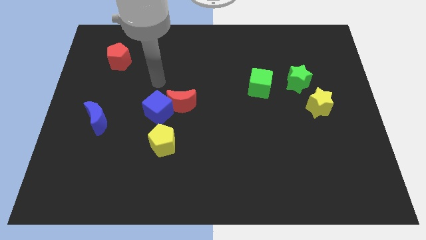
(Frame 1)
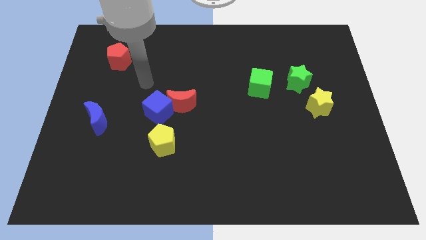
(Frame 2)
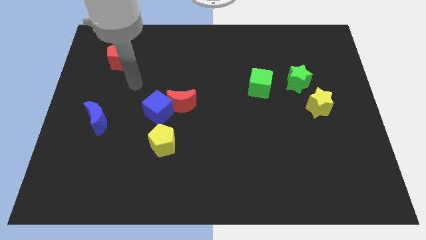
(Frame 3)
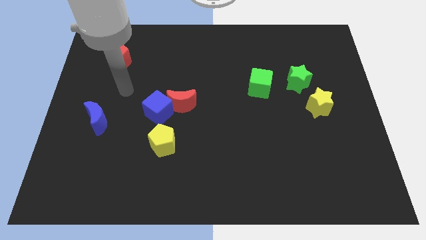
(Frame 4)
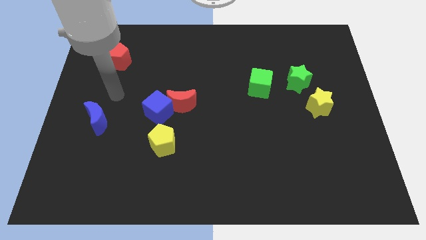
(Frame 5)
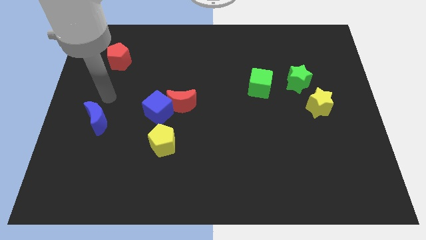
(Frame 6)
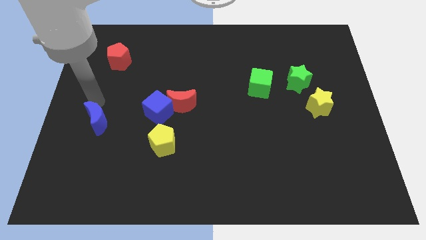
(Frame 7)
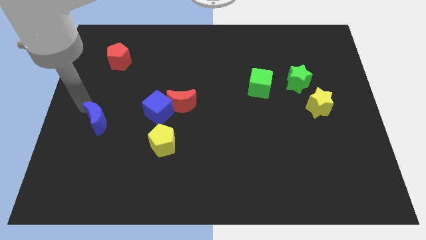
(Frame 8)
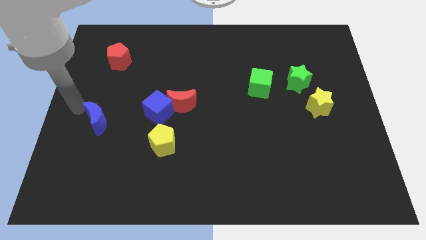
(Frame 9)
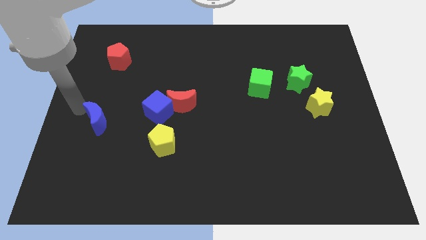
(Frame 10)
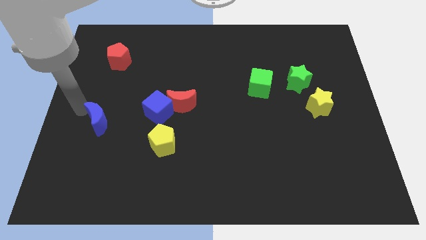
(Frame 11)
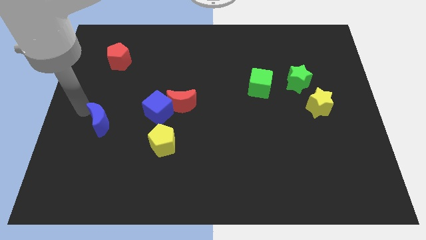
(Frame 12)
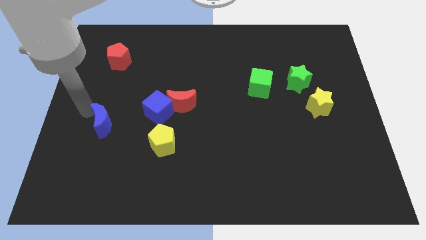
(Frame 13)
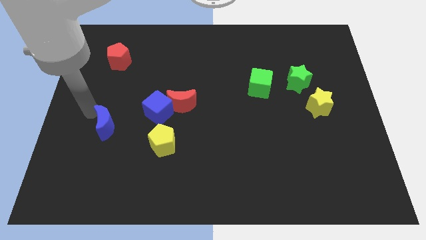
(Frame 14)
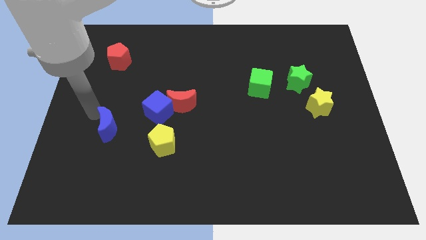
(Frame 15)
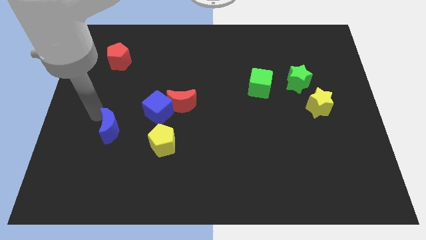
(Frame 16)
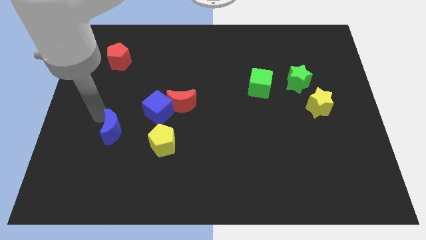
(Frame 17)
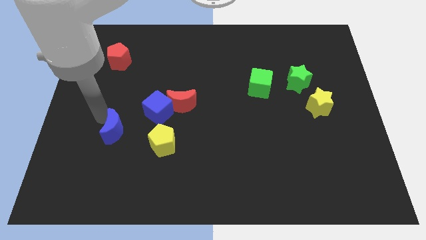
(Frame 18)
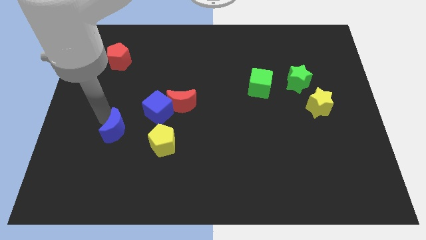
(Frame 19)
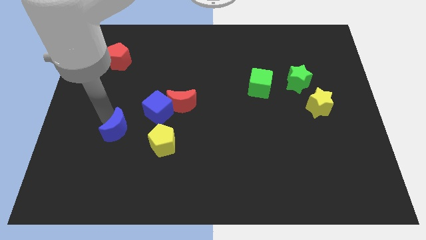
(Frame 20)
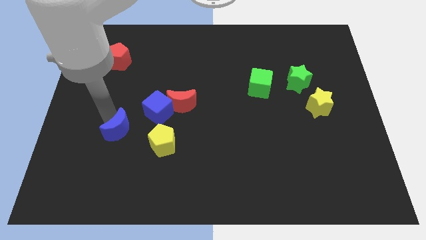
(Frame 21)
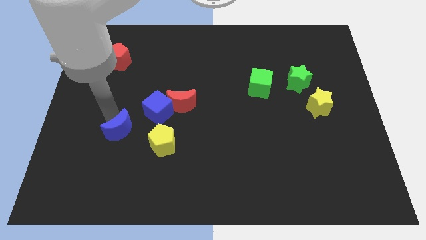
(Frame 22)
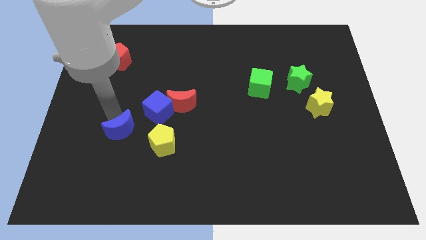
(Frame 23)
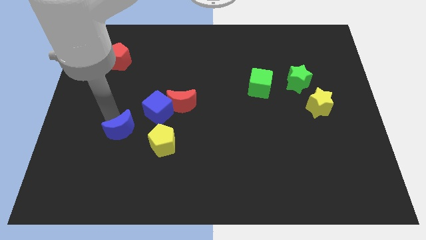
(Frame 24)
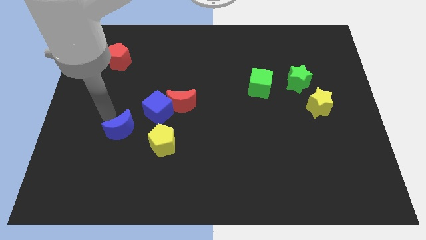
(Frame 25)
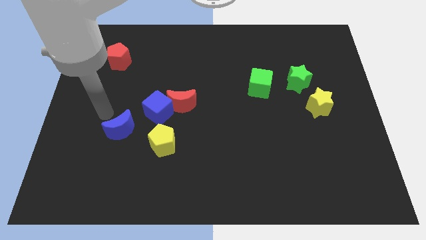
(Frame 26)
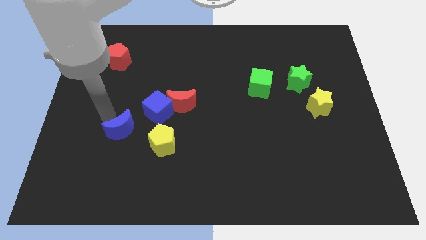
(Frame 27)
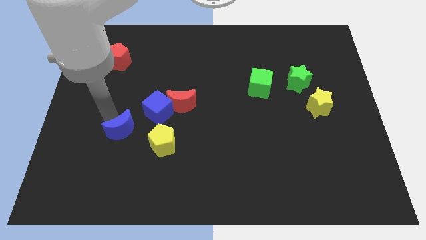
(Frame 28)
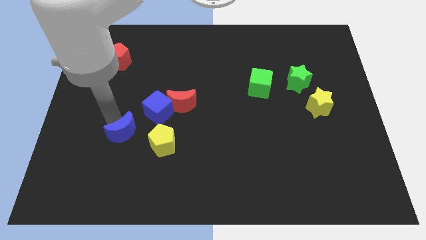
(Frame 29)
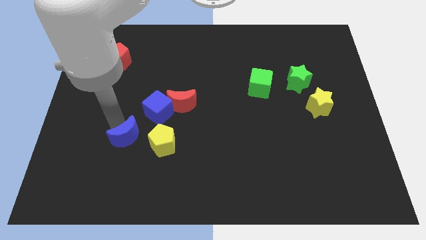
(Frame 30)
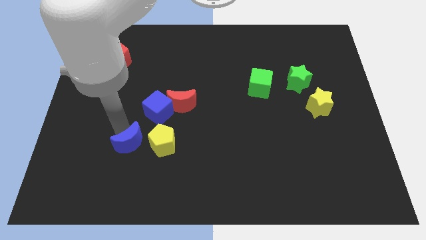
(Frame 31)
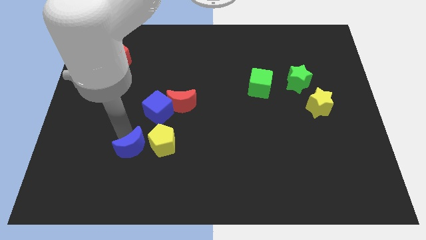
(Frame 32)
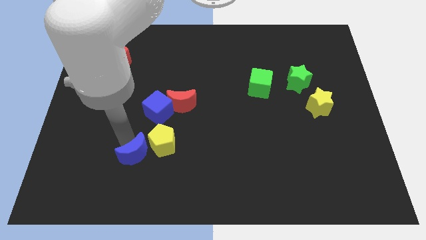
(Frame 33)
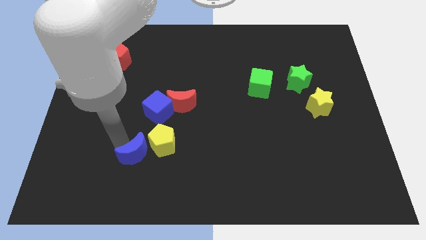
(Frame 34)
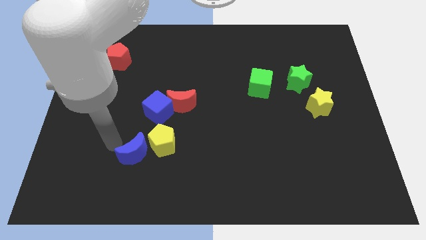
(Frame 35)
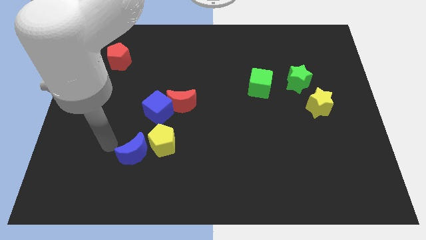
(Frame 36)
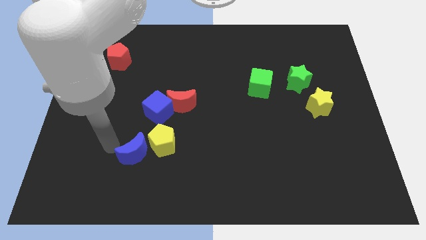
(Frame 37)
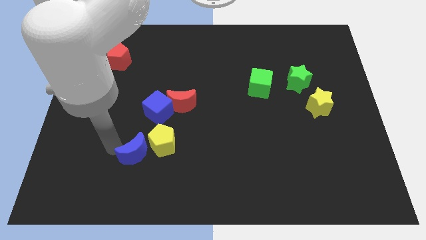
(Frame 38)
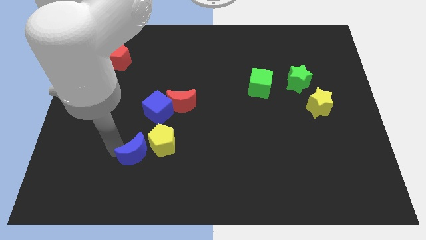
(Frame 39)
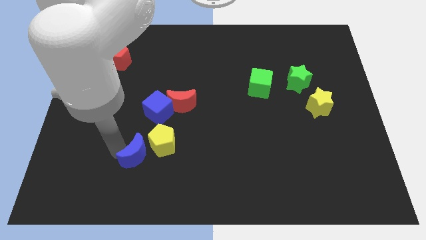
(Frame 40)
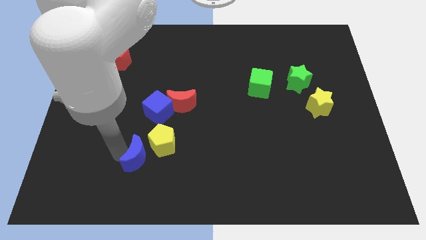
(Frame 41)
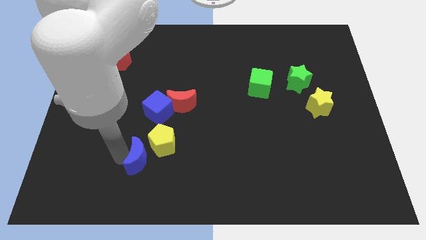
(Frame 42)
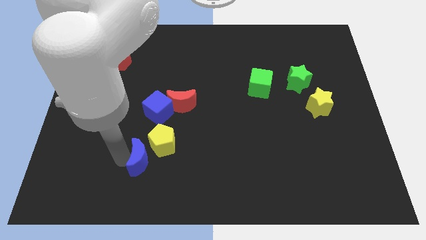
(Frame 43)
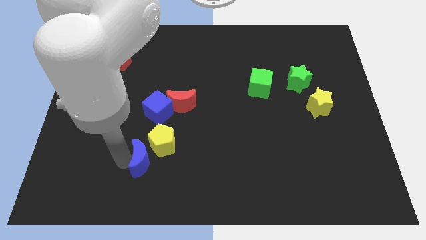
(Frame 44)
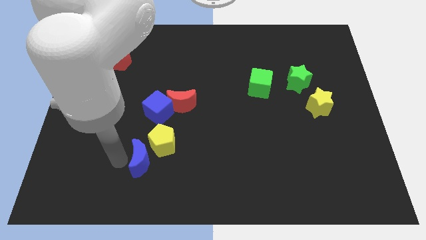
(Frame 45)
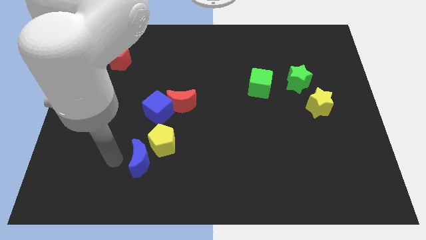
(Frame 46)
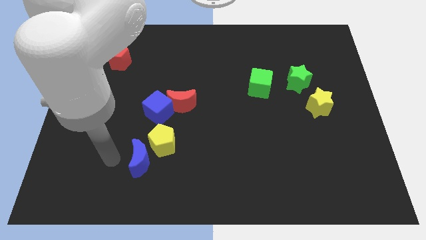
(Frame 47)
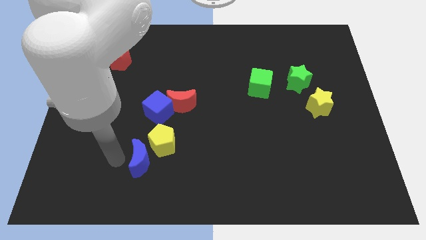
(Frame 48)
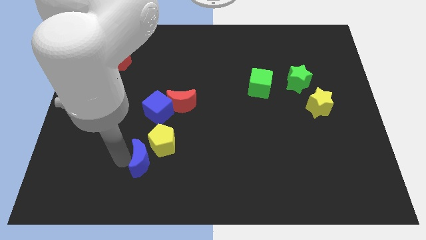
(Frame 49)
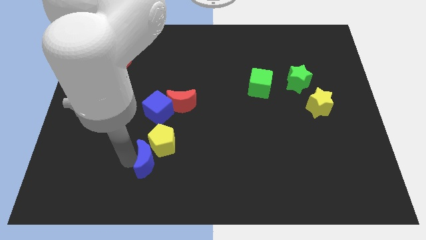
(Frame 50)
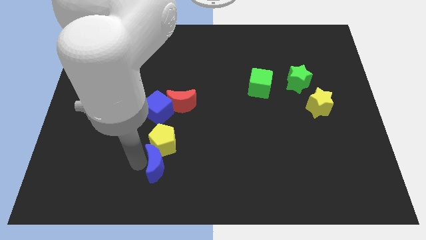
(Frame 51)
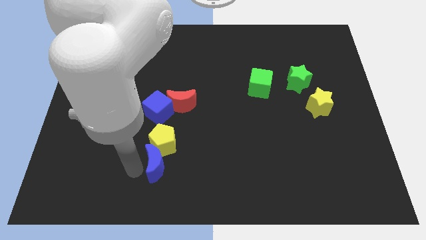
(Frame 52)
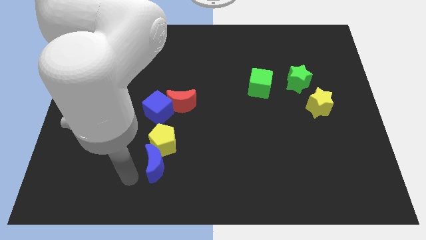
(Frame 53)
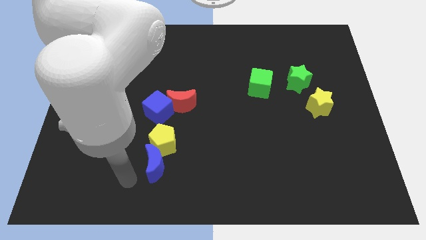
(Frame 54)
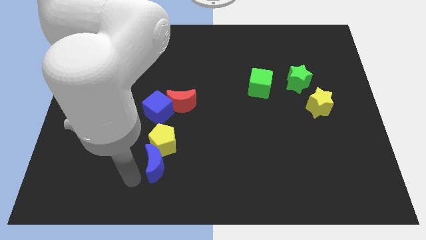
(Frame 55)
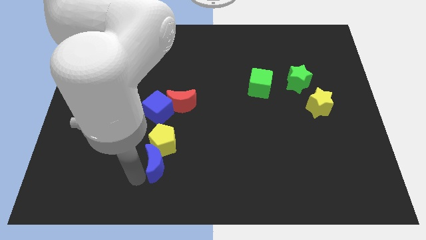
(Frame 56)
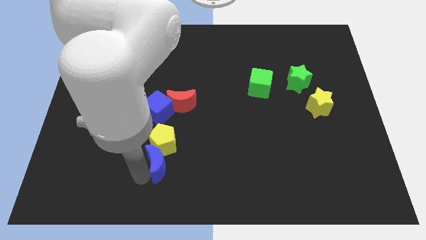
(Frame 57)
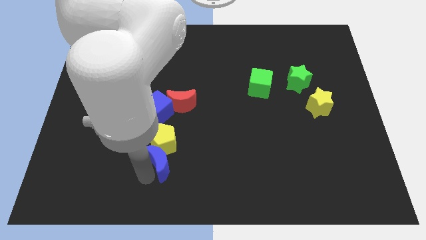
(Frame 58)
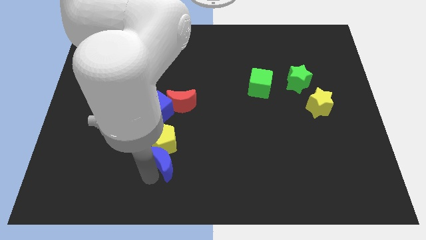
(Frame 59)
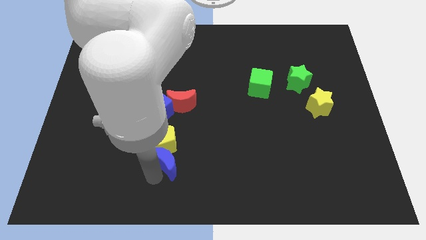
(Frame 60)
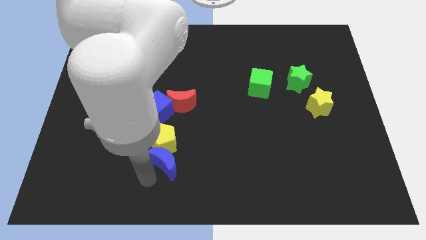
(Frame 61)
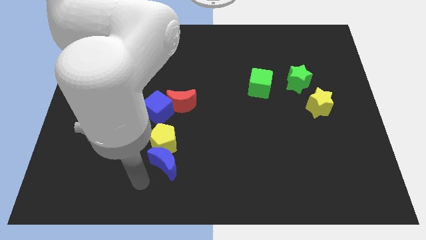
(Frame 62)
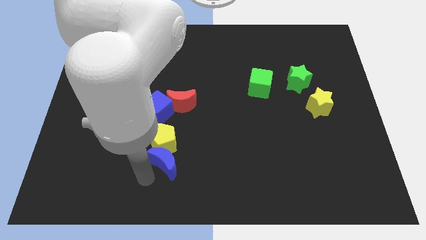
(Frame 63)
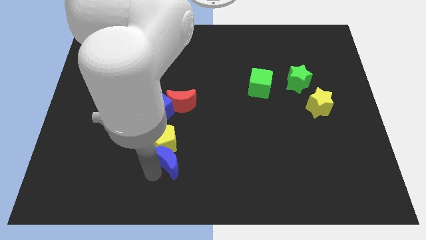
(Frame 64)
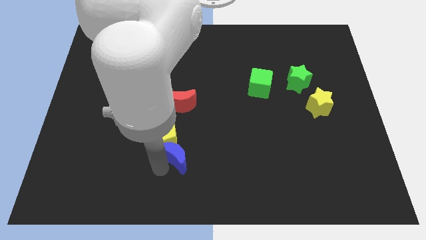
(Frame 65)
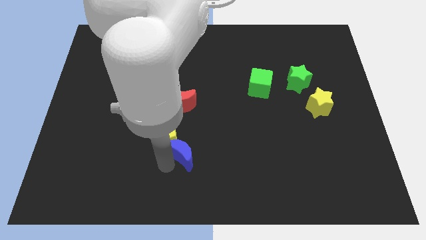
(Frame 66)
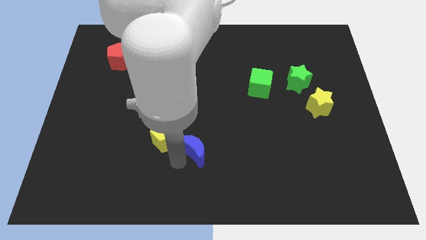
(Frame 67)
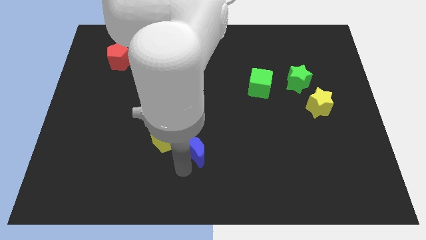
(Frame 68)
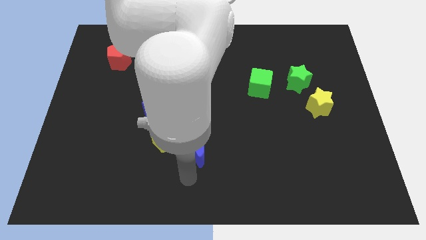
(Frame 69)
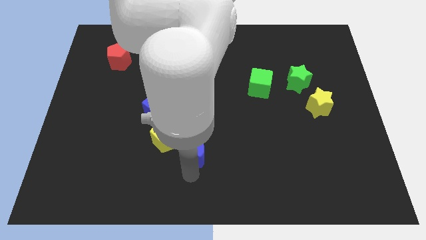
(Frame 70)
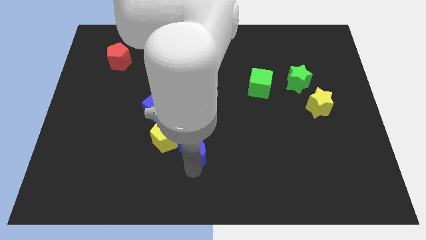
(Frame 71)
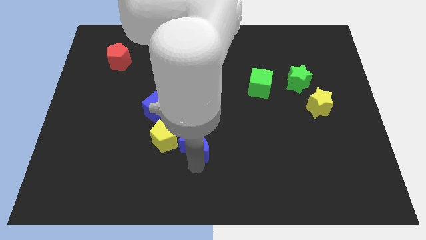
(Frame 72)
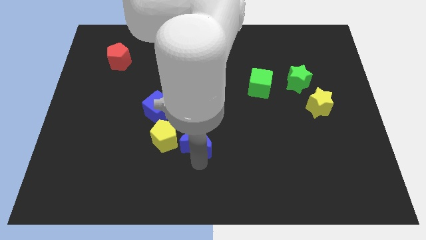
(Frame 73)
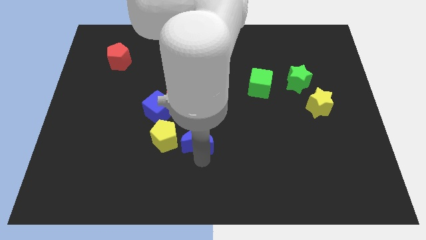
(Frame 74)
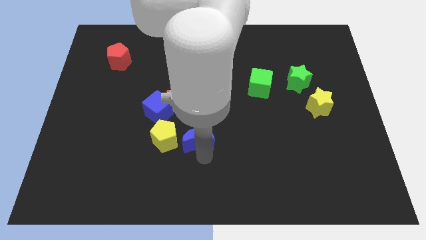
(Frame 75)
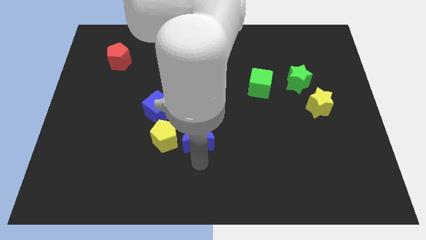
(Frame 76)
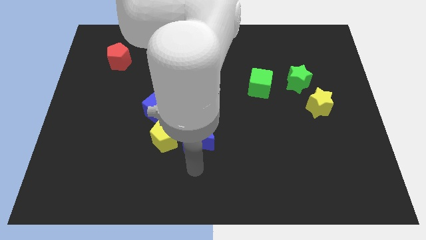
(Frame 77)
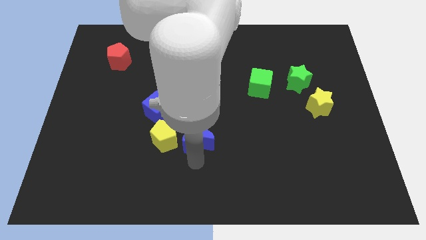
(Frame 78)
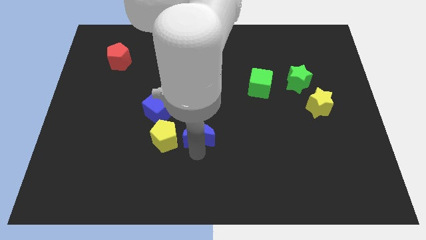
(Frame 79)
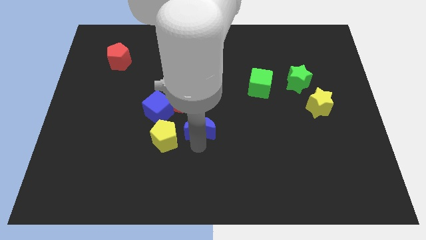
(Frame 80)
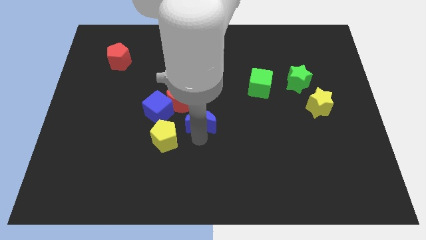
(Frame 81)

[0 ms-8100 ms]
move the blue moon just right of the blue cube
